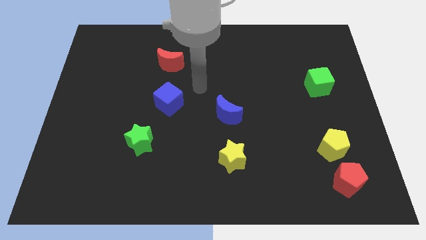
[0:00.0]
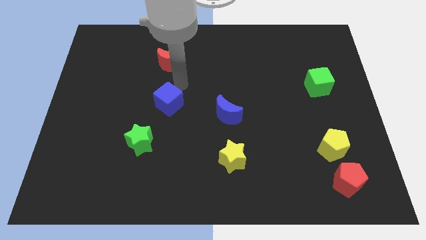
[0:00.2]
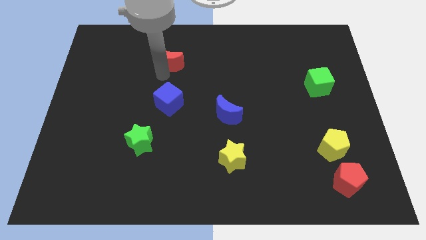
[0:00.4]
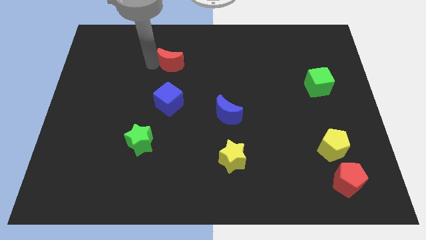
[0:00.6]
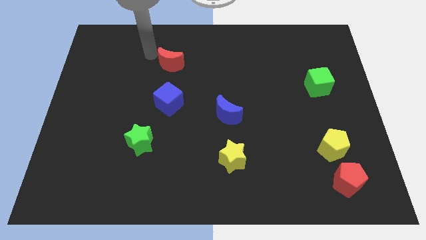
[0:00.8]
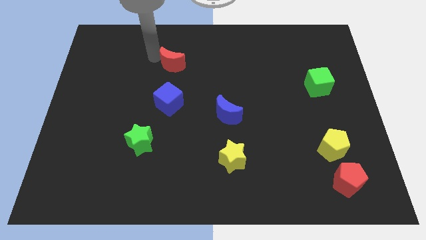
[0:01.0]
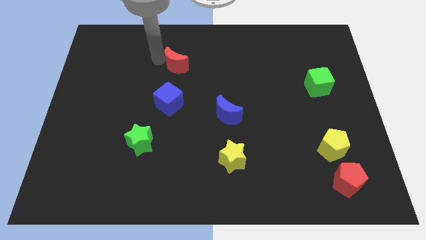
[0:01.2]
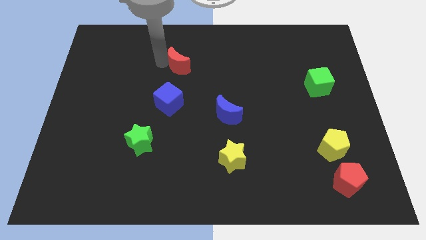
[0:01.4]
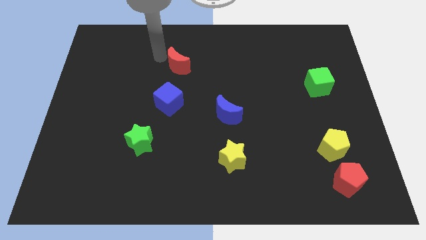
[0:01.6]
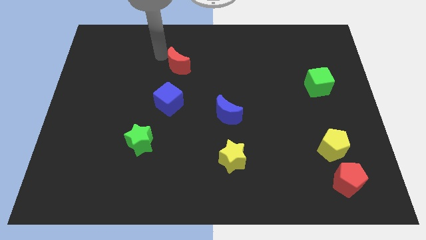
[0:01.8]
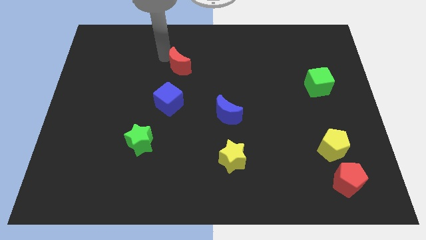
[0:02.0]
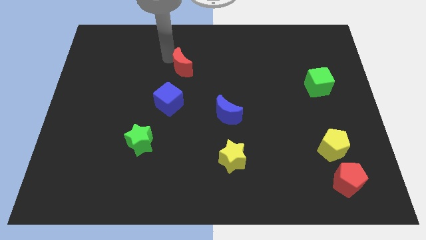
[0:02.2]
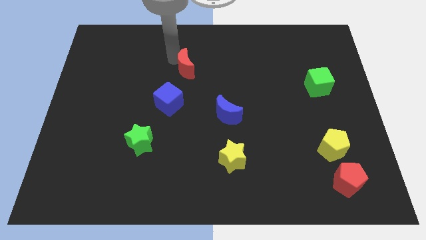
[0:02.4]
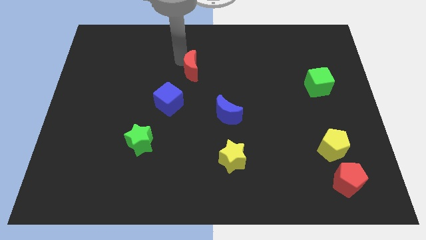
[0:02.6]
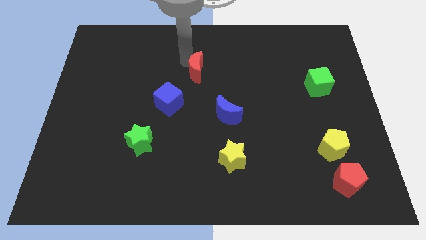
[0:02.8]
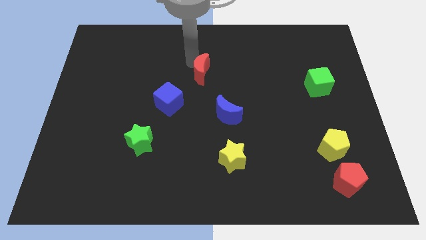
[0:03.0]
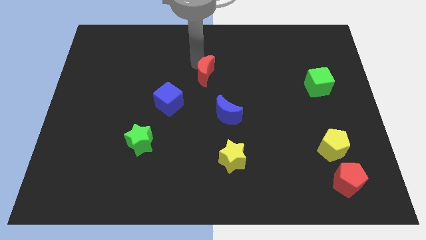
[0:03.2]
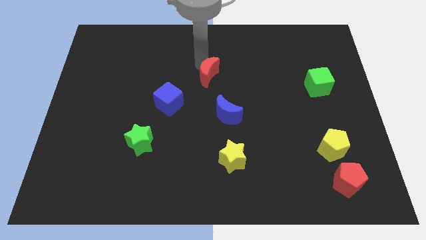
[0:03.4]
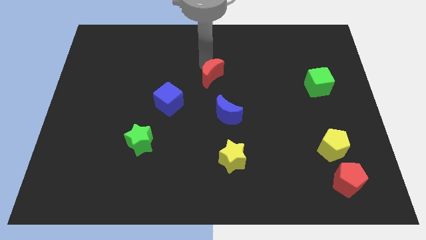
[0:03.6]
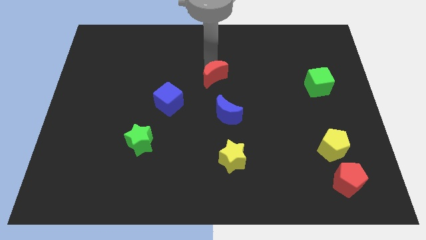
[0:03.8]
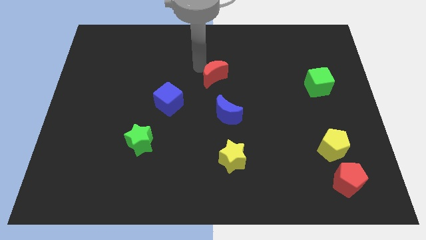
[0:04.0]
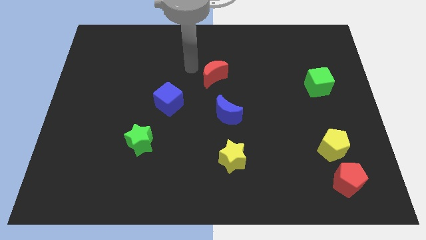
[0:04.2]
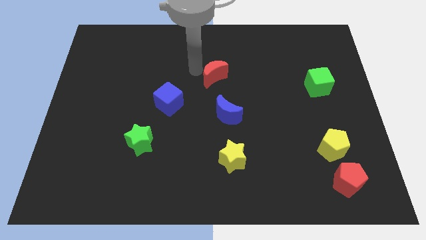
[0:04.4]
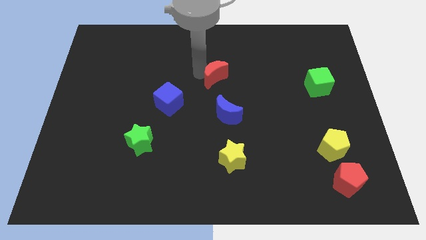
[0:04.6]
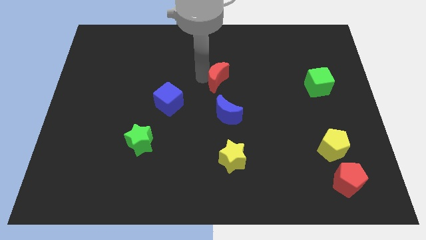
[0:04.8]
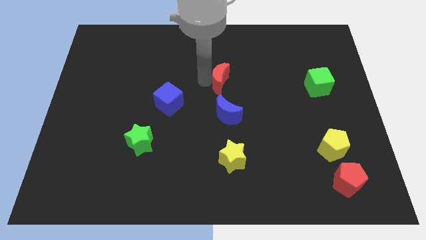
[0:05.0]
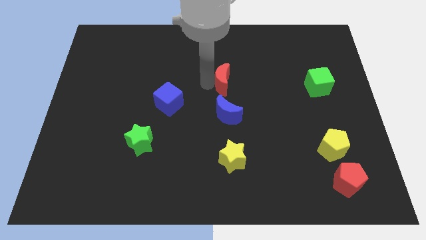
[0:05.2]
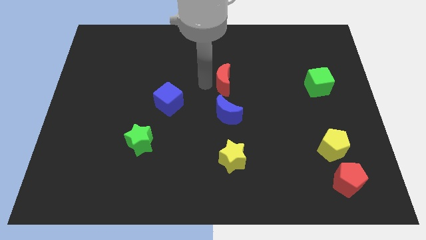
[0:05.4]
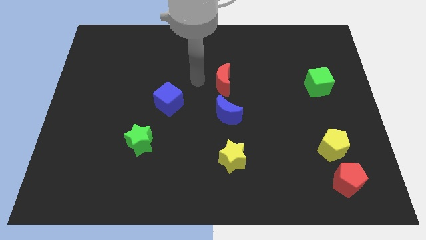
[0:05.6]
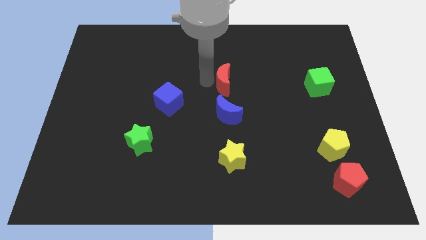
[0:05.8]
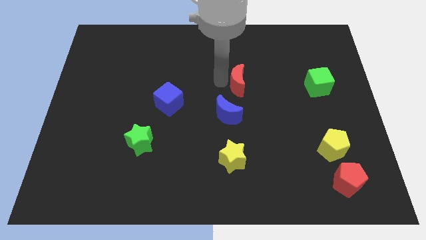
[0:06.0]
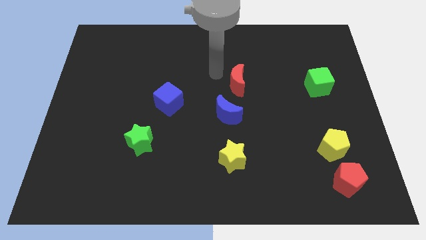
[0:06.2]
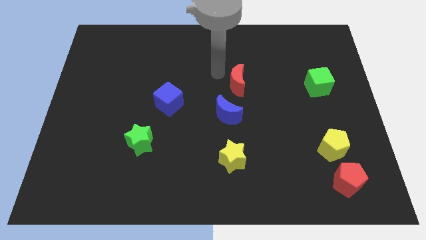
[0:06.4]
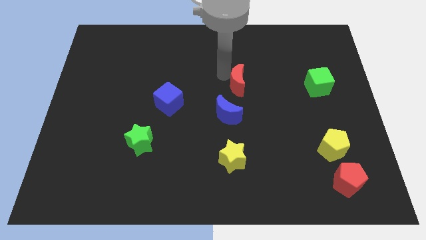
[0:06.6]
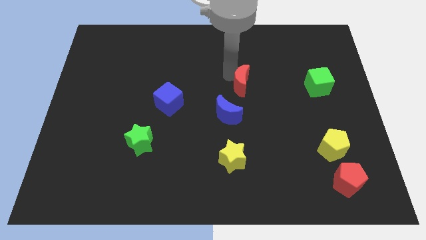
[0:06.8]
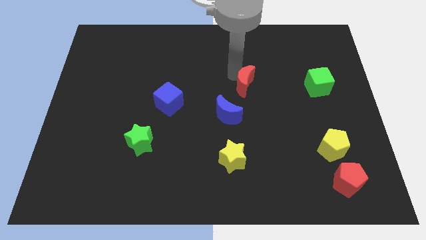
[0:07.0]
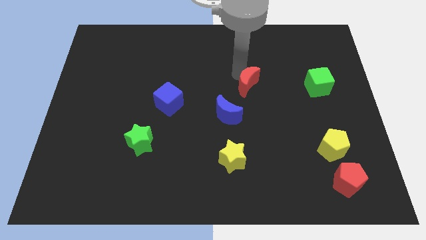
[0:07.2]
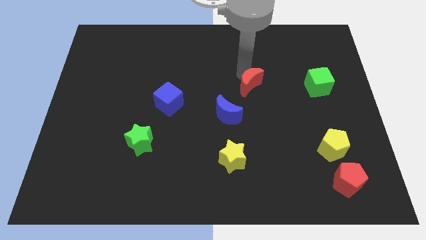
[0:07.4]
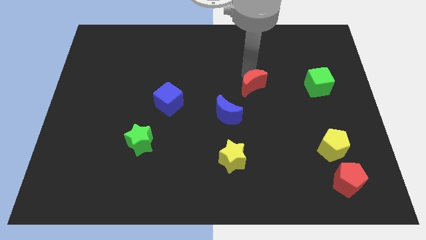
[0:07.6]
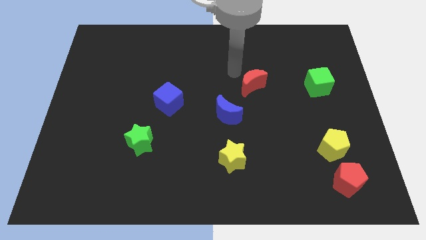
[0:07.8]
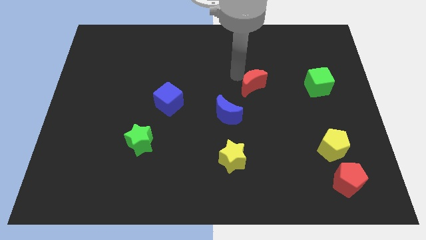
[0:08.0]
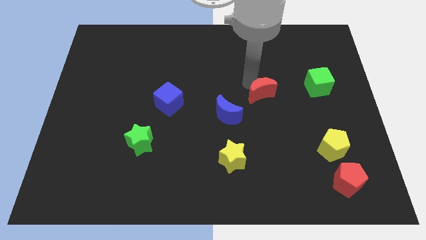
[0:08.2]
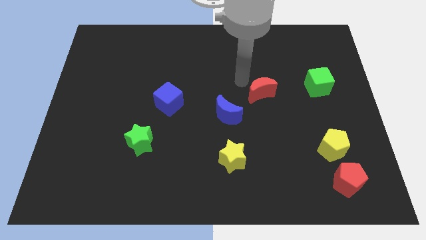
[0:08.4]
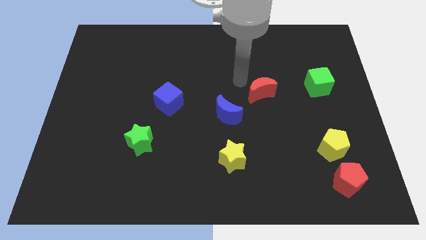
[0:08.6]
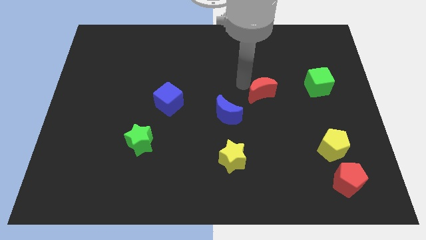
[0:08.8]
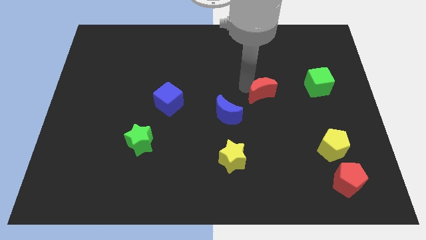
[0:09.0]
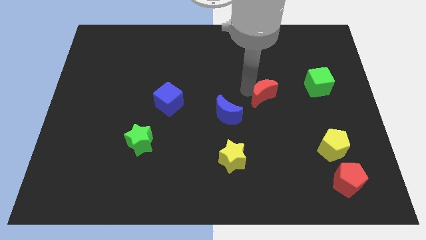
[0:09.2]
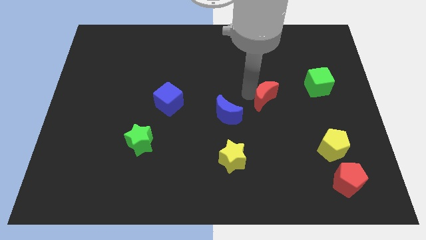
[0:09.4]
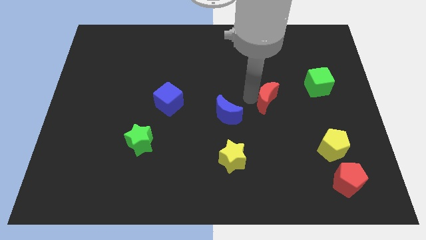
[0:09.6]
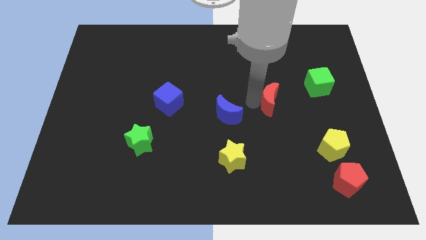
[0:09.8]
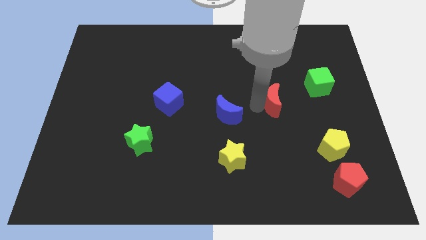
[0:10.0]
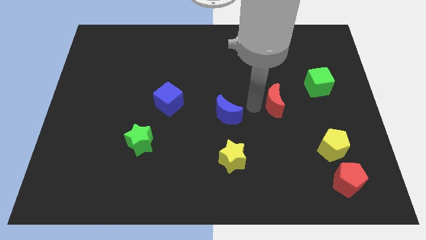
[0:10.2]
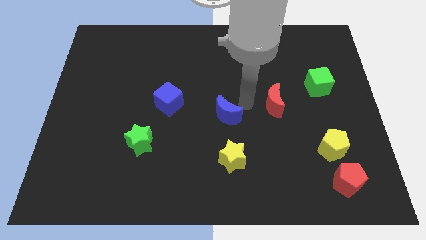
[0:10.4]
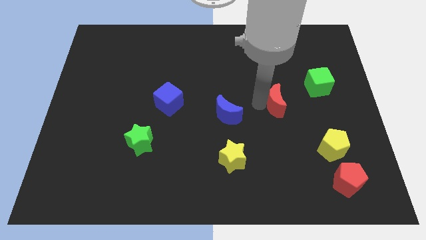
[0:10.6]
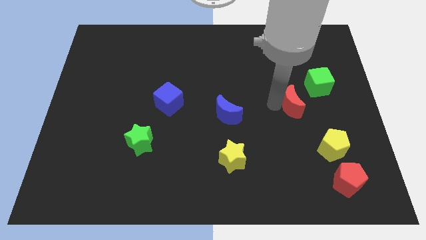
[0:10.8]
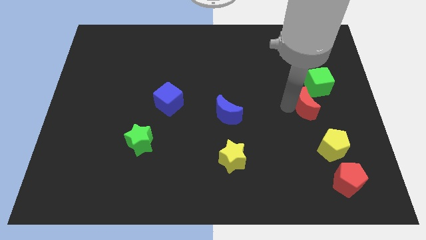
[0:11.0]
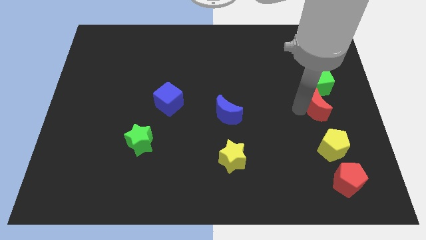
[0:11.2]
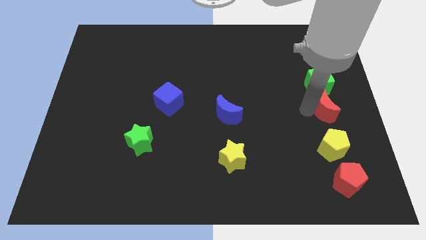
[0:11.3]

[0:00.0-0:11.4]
push the red moon to the right side

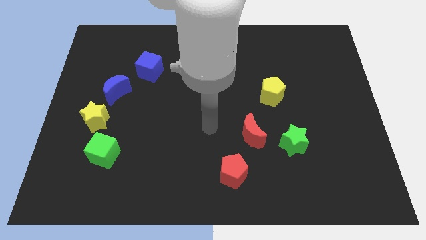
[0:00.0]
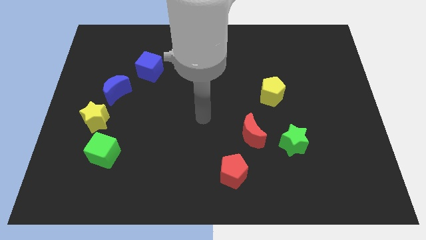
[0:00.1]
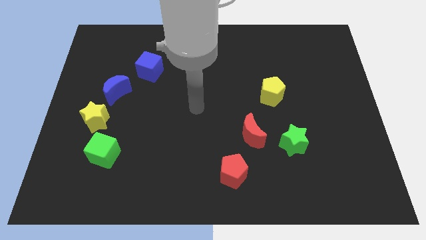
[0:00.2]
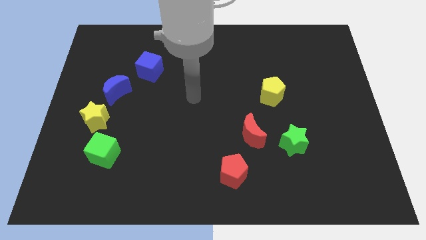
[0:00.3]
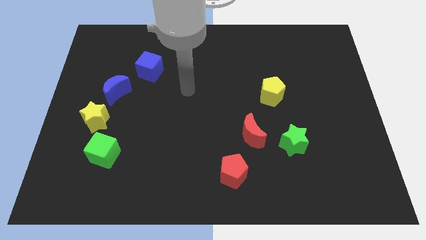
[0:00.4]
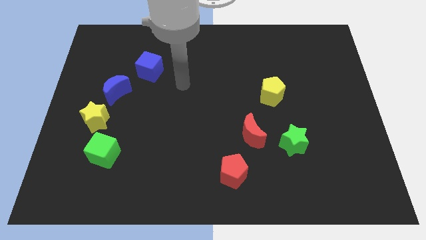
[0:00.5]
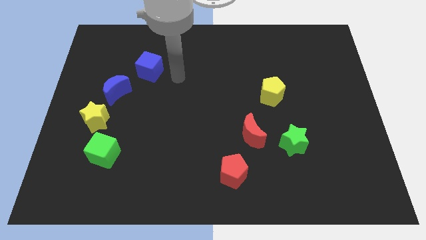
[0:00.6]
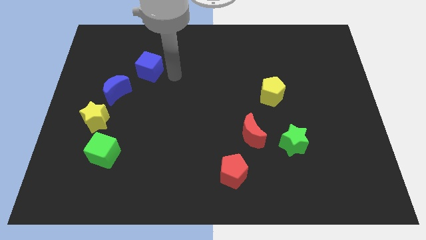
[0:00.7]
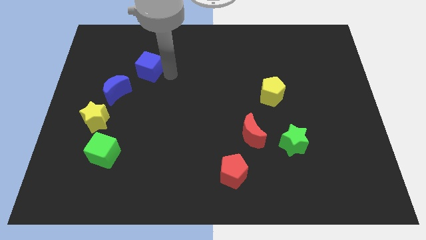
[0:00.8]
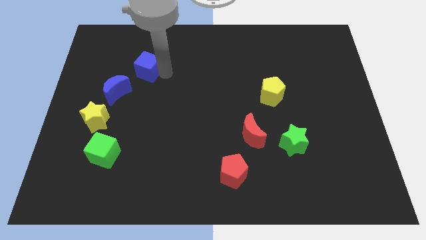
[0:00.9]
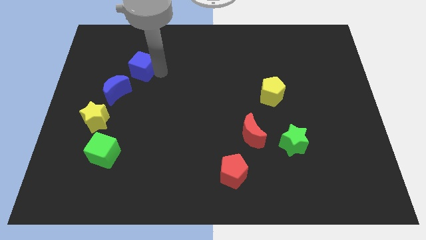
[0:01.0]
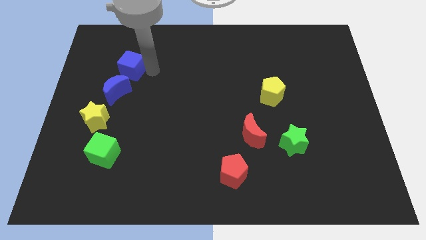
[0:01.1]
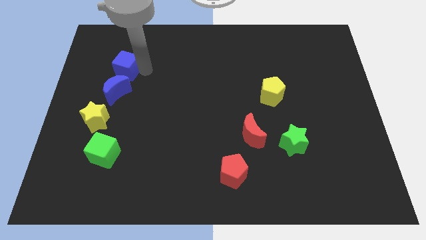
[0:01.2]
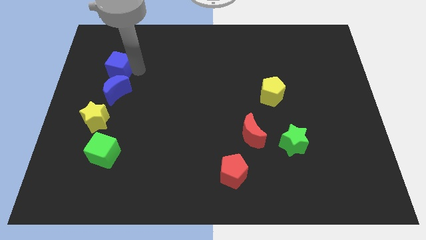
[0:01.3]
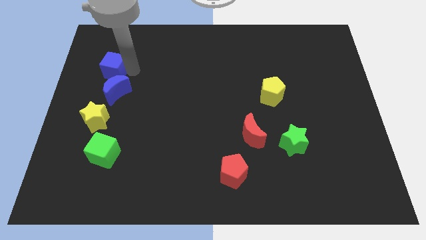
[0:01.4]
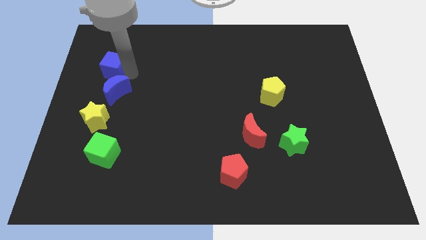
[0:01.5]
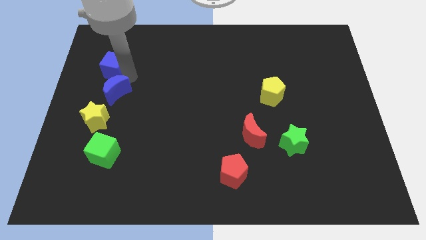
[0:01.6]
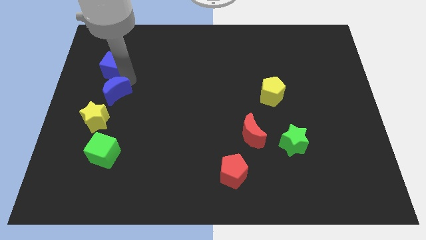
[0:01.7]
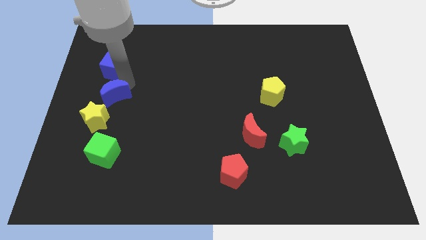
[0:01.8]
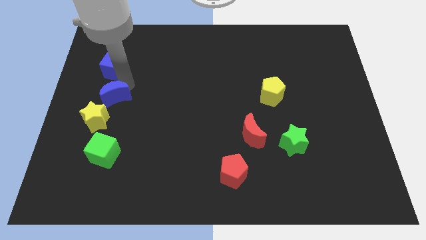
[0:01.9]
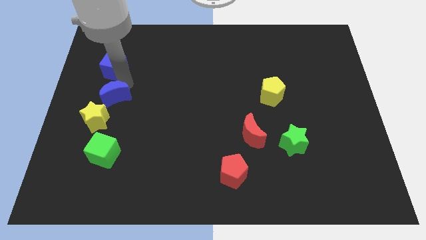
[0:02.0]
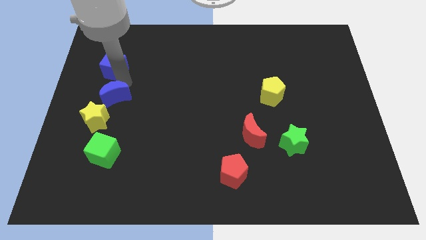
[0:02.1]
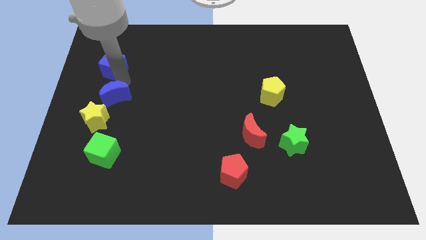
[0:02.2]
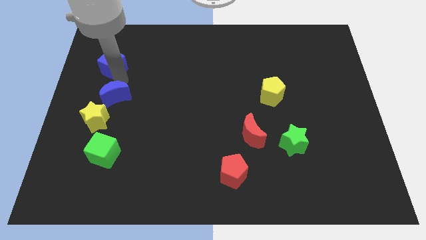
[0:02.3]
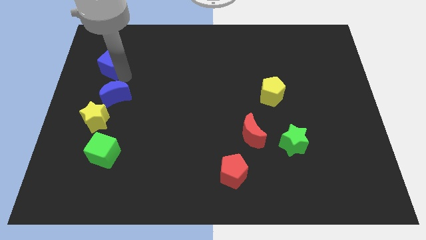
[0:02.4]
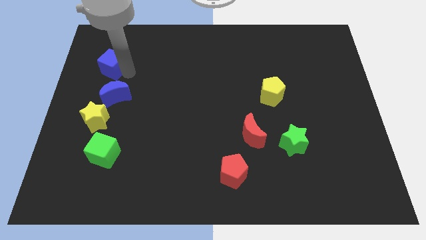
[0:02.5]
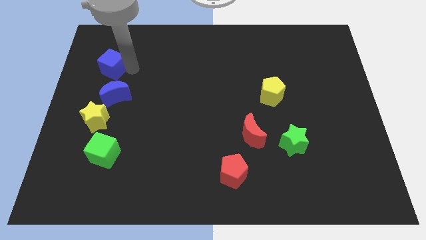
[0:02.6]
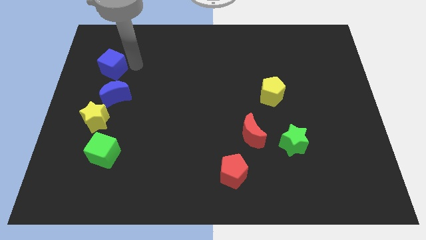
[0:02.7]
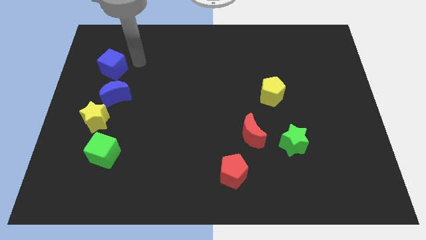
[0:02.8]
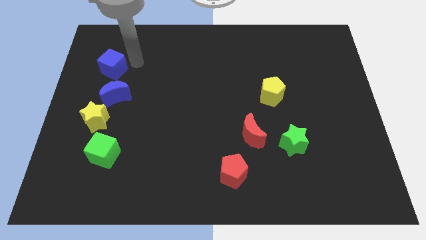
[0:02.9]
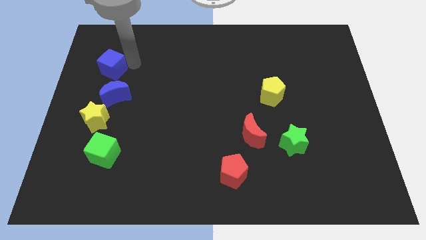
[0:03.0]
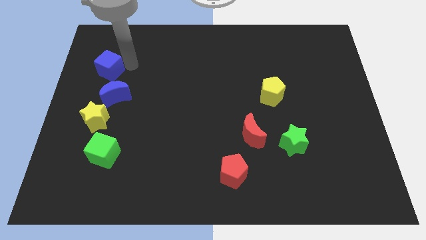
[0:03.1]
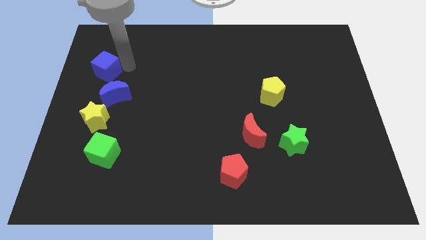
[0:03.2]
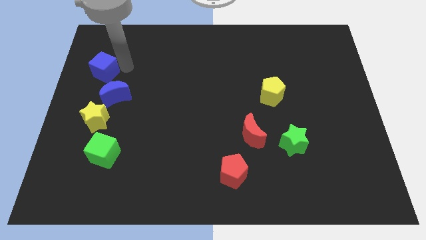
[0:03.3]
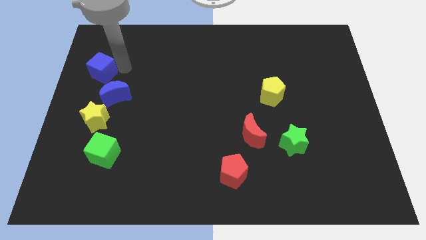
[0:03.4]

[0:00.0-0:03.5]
move the blue cube to the left side of the board
